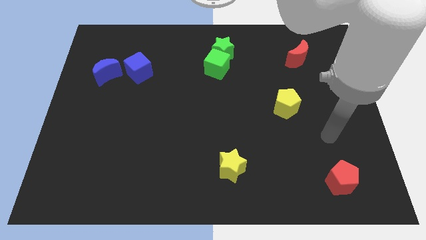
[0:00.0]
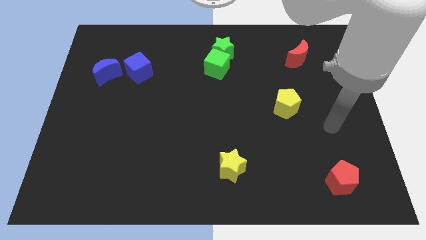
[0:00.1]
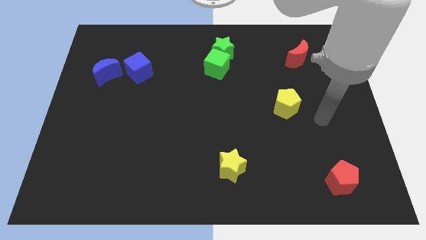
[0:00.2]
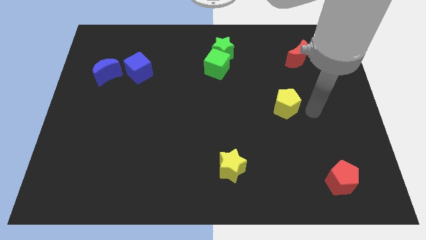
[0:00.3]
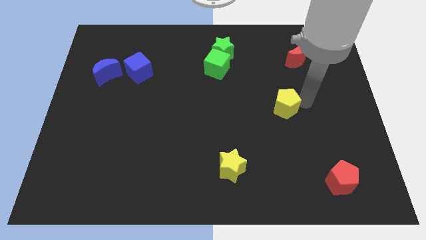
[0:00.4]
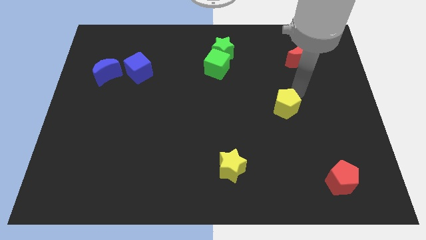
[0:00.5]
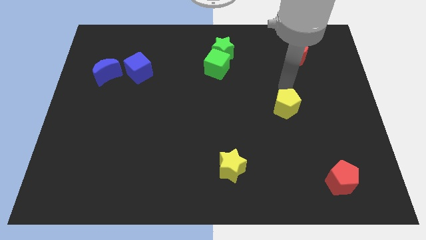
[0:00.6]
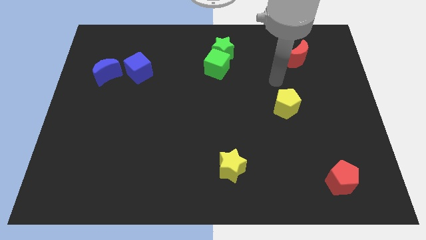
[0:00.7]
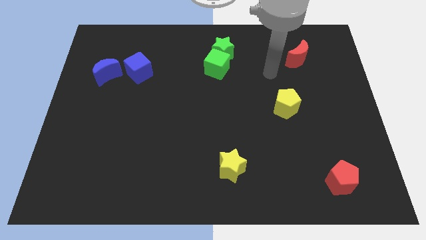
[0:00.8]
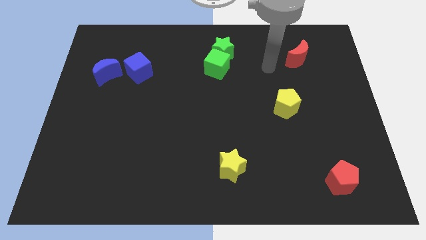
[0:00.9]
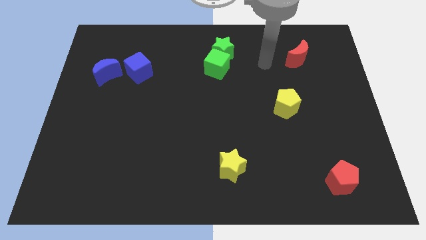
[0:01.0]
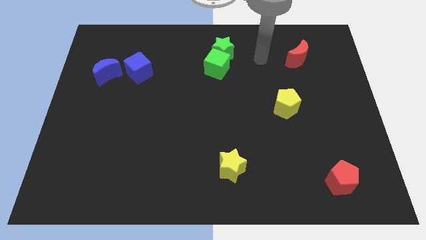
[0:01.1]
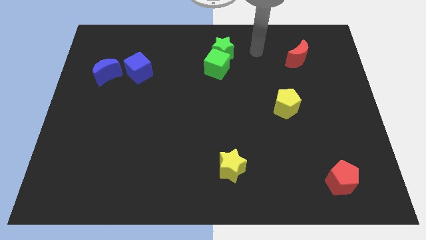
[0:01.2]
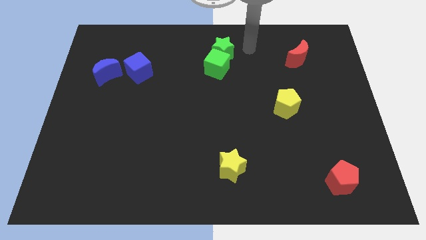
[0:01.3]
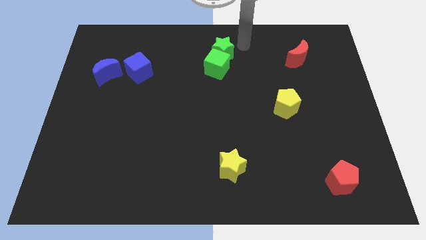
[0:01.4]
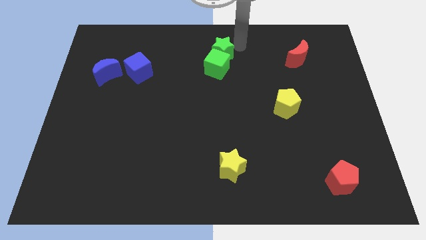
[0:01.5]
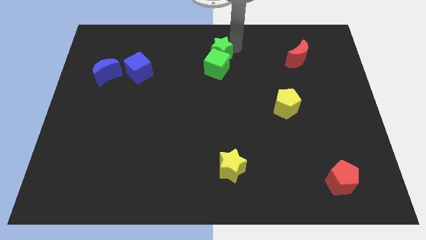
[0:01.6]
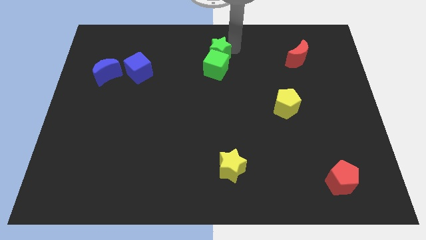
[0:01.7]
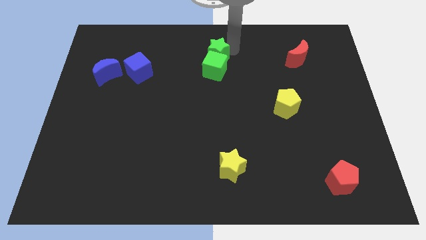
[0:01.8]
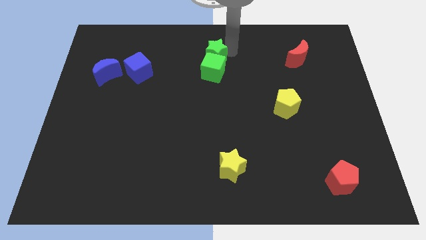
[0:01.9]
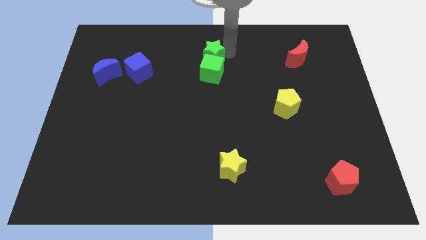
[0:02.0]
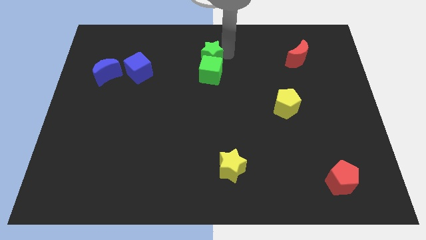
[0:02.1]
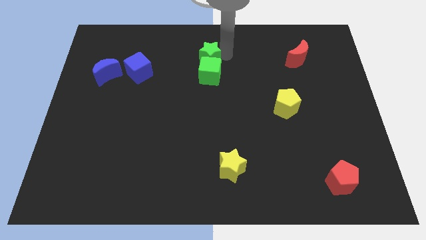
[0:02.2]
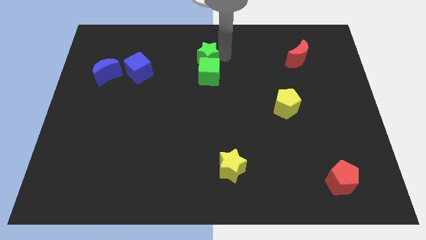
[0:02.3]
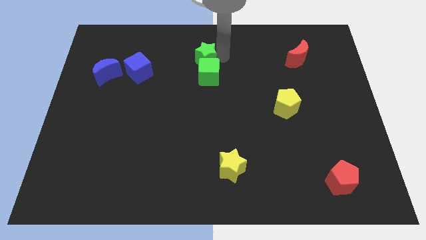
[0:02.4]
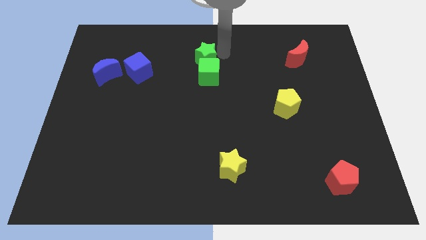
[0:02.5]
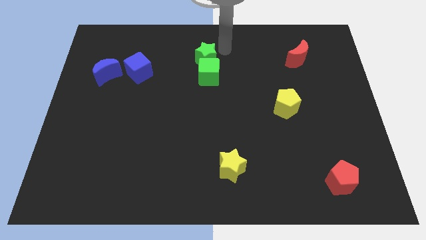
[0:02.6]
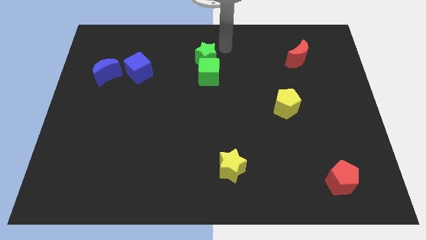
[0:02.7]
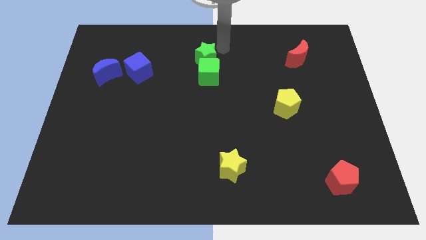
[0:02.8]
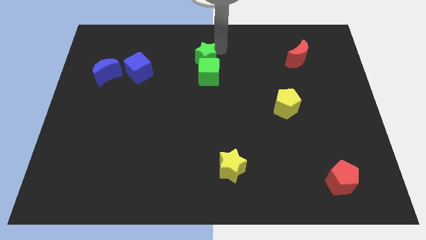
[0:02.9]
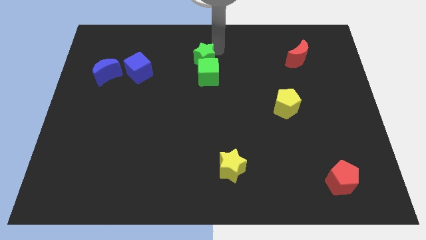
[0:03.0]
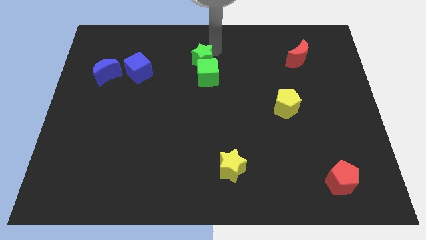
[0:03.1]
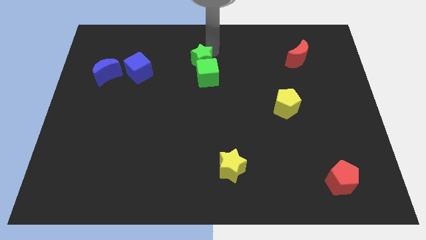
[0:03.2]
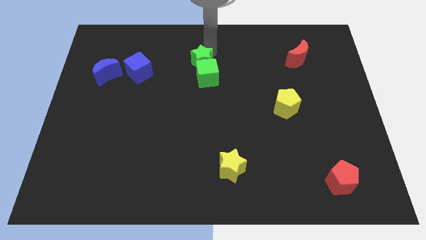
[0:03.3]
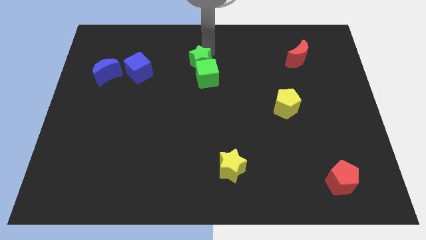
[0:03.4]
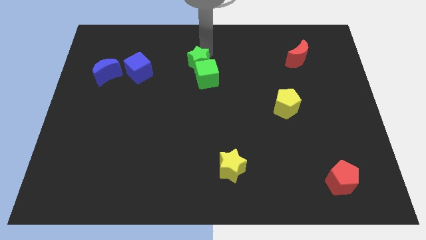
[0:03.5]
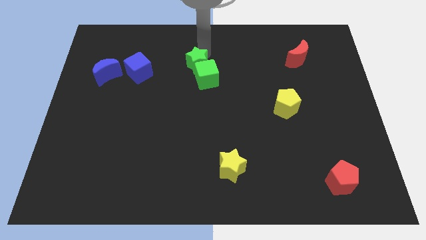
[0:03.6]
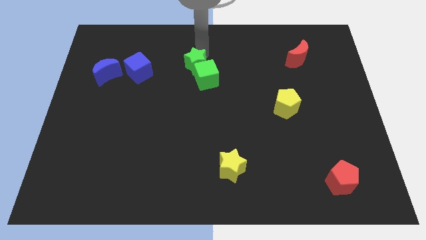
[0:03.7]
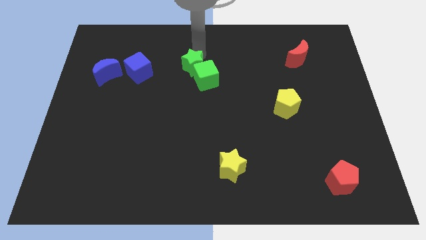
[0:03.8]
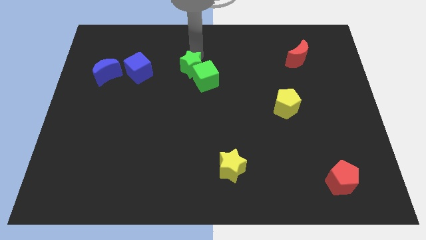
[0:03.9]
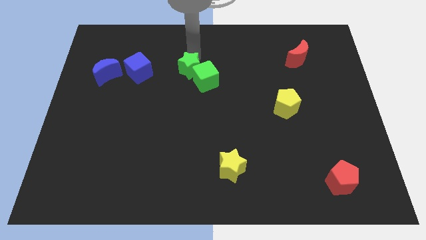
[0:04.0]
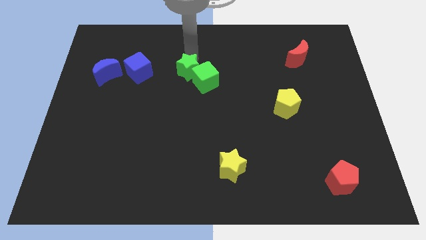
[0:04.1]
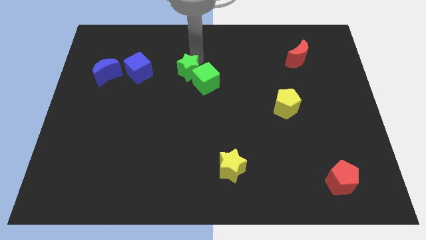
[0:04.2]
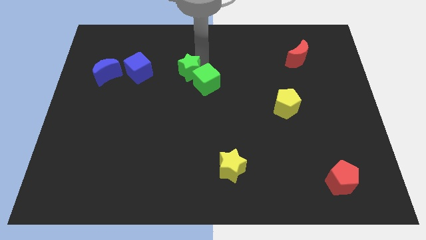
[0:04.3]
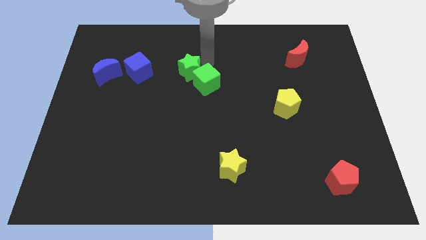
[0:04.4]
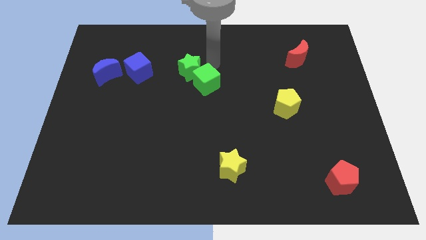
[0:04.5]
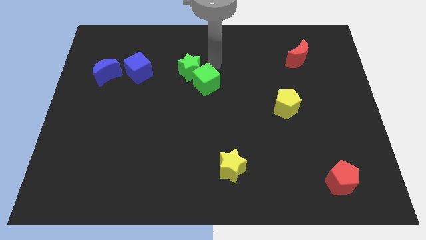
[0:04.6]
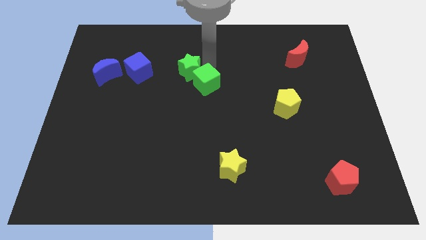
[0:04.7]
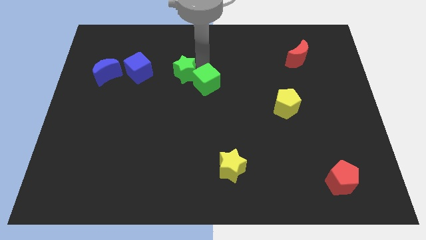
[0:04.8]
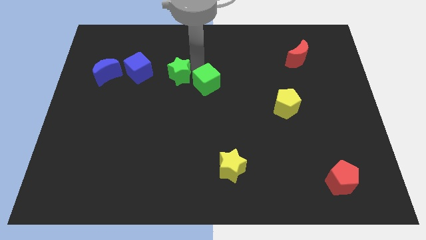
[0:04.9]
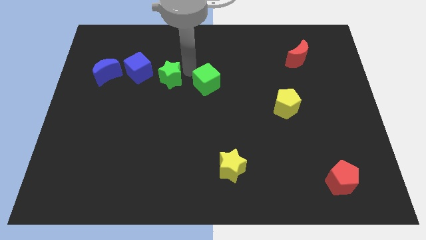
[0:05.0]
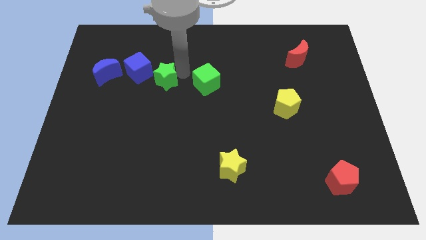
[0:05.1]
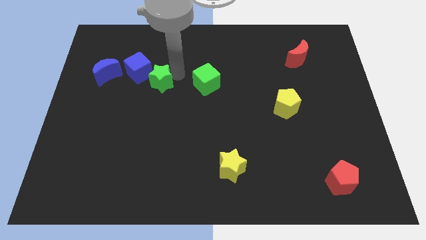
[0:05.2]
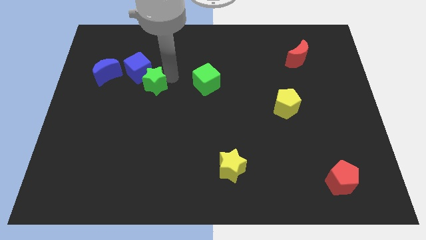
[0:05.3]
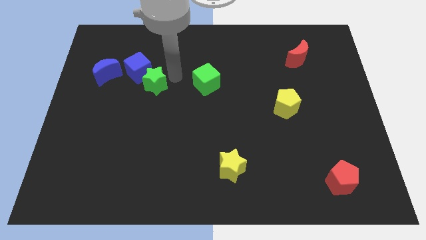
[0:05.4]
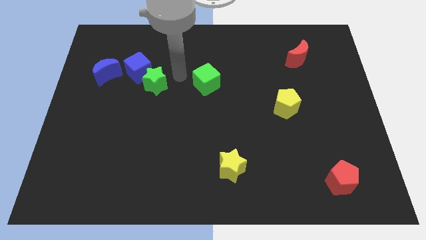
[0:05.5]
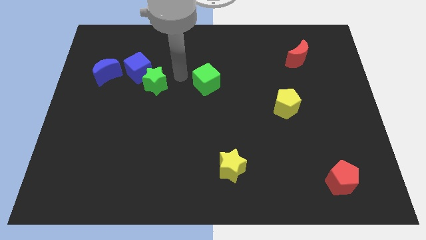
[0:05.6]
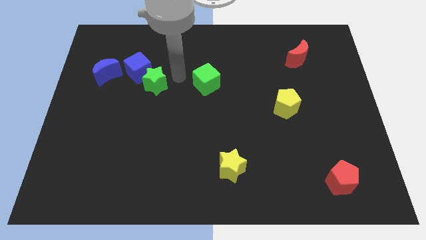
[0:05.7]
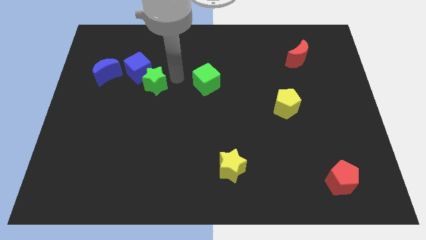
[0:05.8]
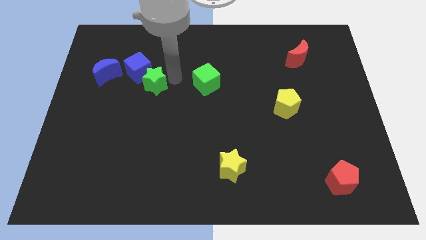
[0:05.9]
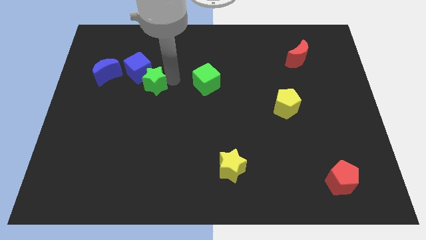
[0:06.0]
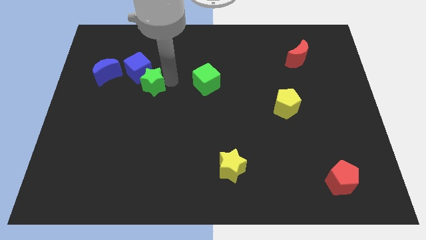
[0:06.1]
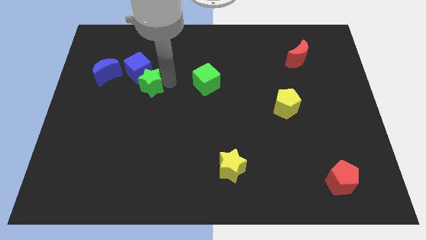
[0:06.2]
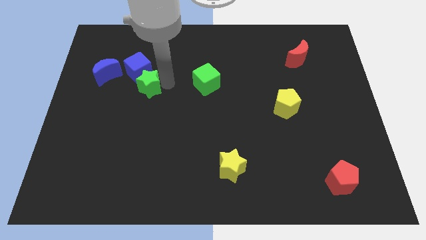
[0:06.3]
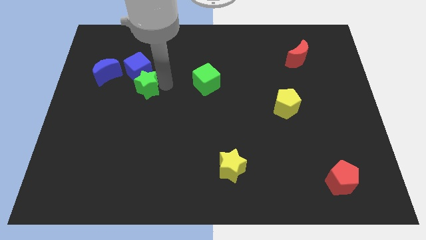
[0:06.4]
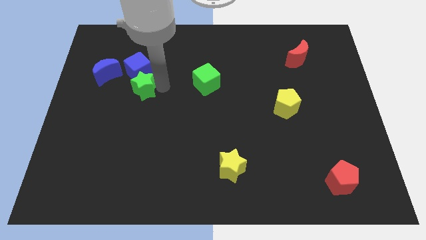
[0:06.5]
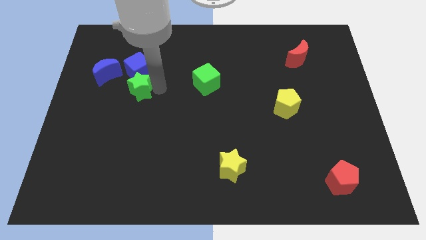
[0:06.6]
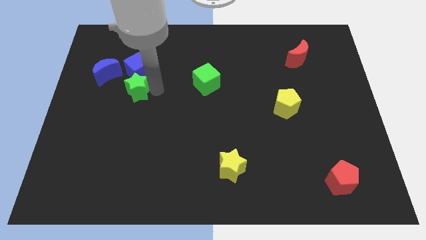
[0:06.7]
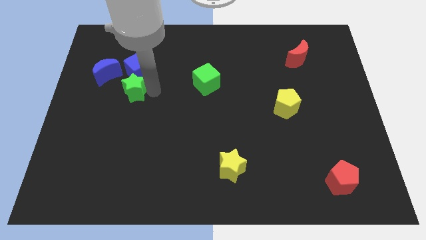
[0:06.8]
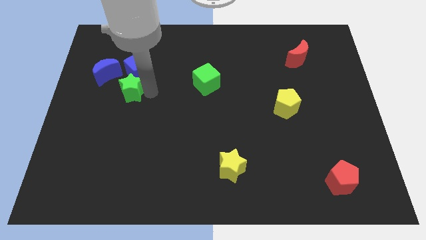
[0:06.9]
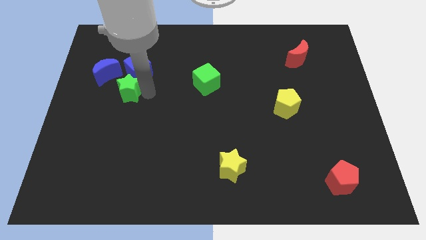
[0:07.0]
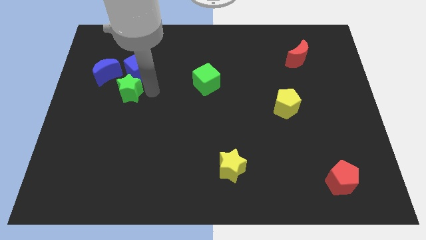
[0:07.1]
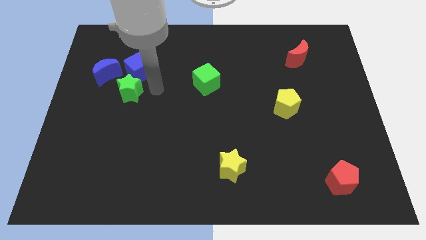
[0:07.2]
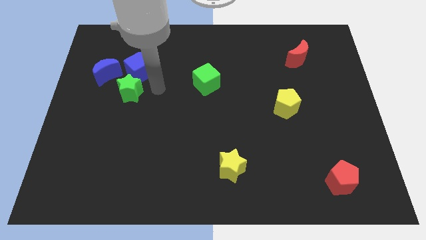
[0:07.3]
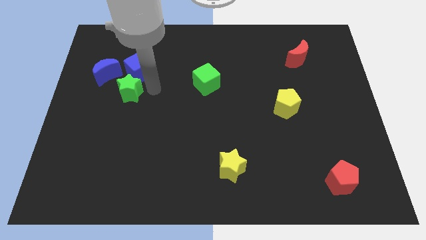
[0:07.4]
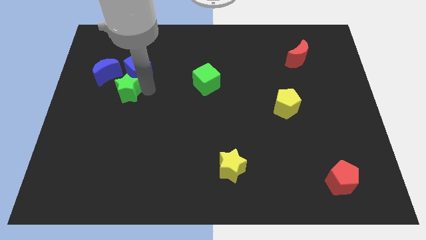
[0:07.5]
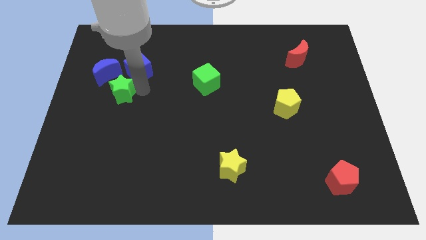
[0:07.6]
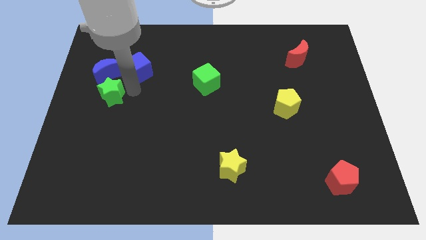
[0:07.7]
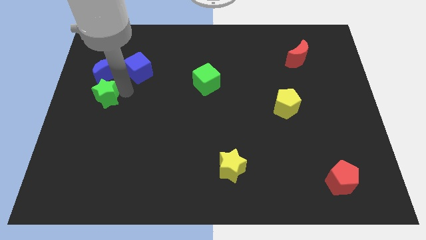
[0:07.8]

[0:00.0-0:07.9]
move the green star to the left side
